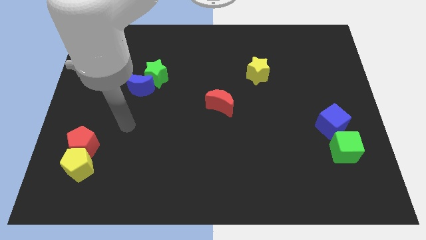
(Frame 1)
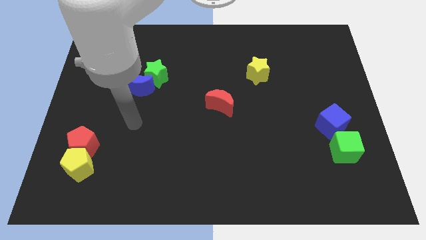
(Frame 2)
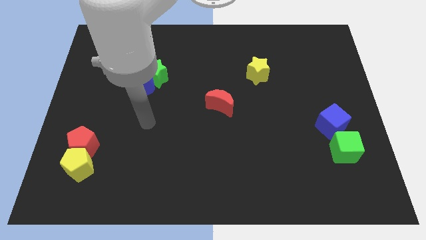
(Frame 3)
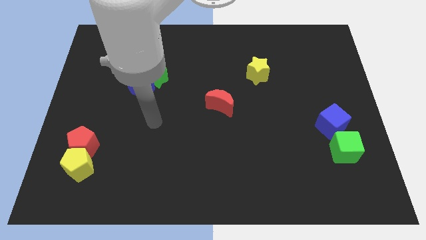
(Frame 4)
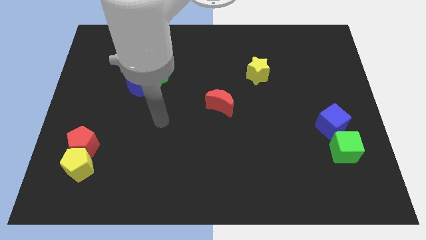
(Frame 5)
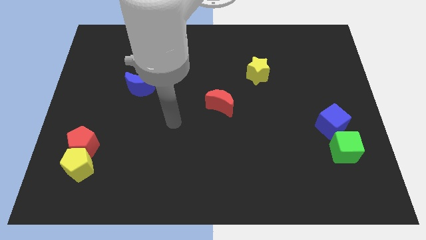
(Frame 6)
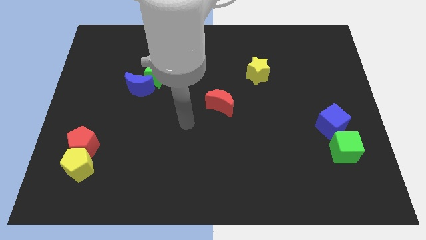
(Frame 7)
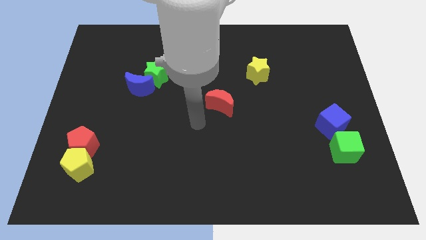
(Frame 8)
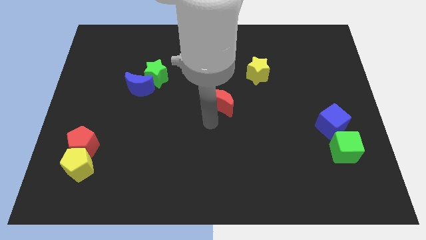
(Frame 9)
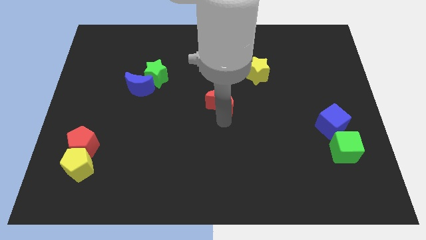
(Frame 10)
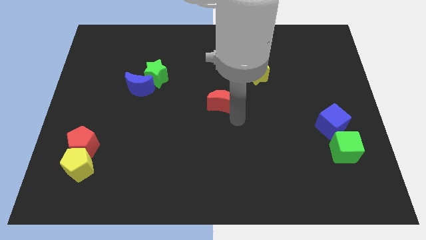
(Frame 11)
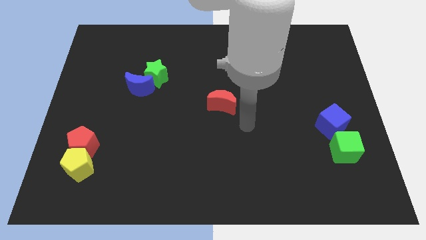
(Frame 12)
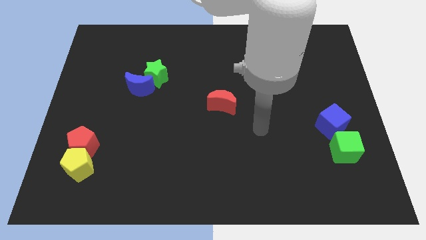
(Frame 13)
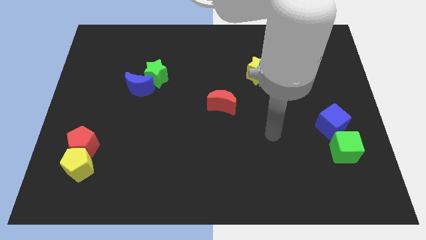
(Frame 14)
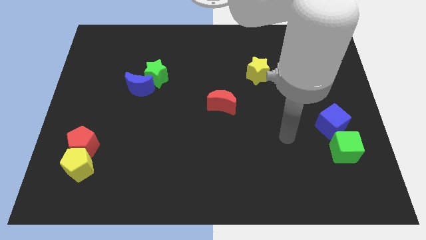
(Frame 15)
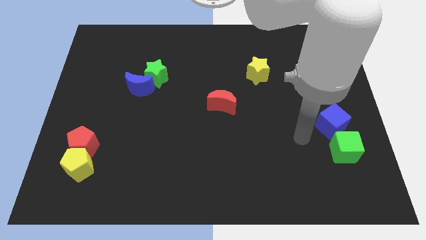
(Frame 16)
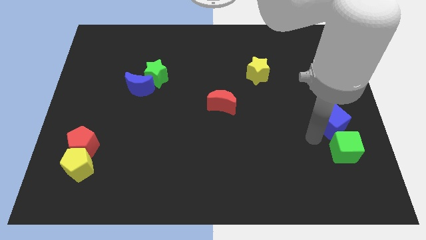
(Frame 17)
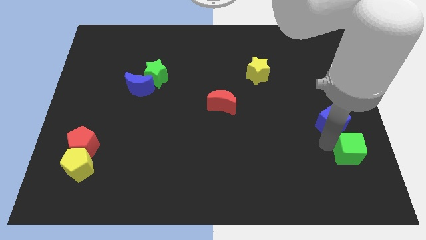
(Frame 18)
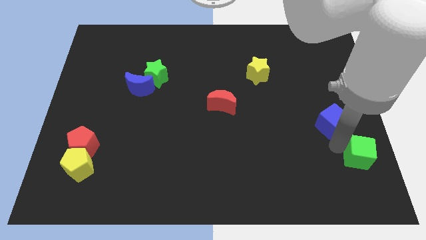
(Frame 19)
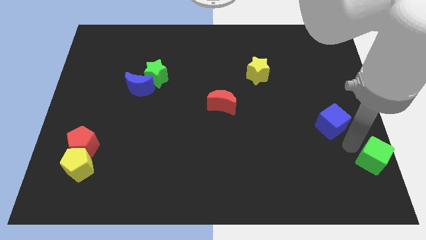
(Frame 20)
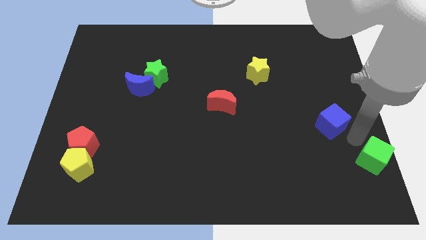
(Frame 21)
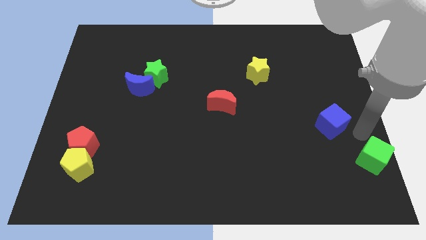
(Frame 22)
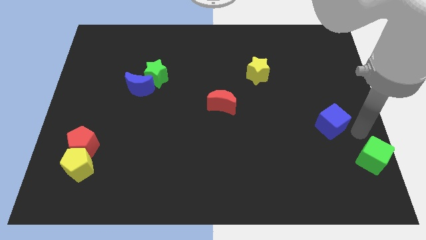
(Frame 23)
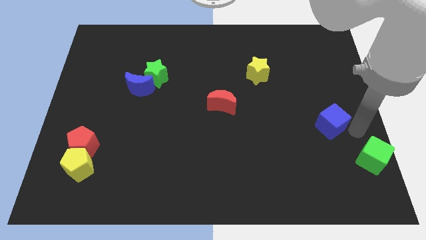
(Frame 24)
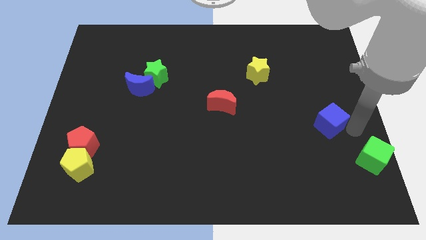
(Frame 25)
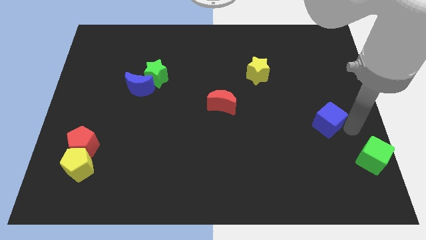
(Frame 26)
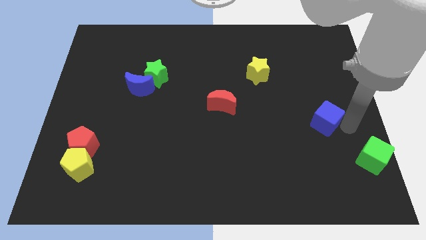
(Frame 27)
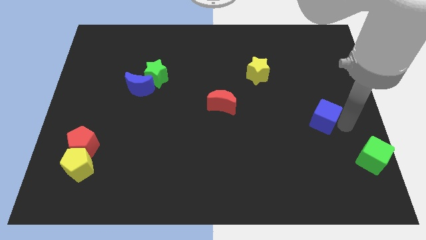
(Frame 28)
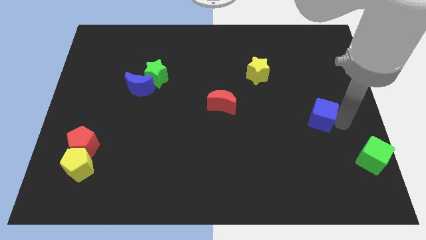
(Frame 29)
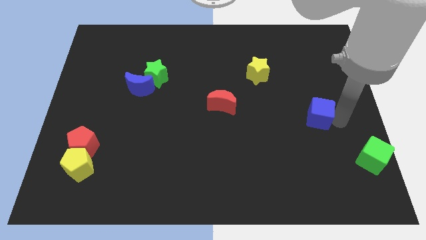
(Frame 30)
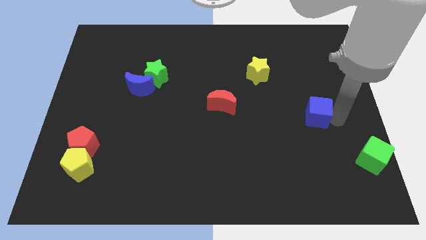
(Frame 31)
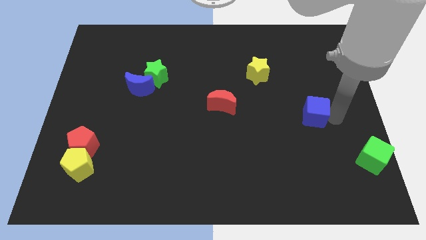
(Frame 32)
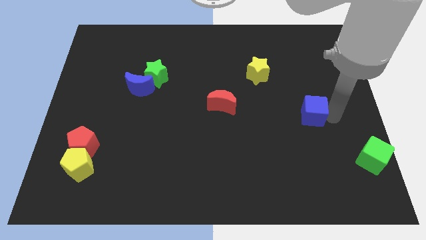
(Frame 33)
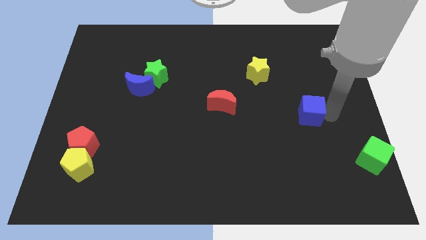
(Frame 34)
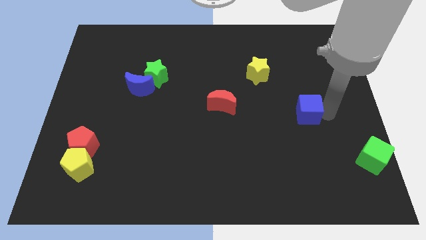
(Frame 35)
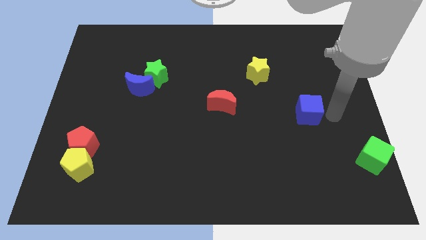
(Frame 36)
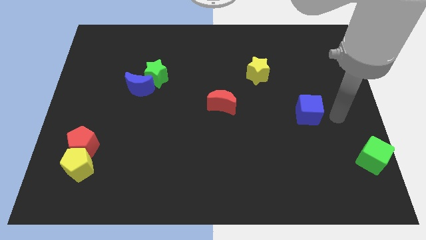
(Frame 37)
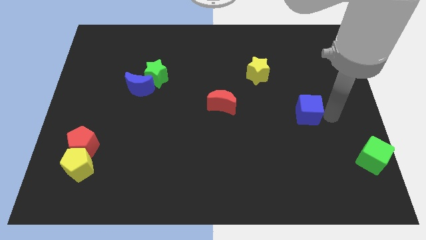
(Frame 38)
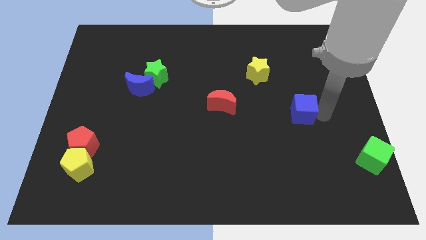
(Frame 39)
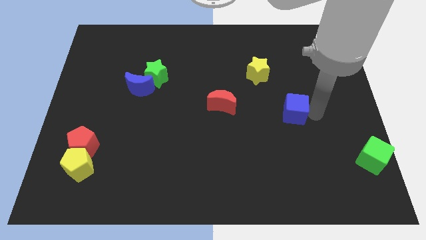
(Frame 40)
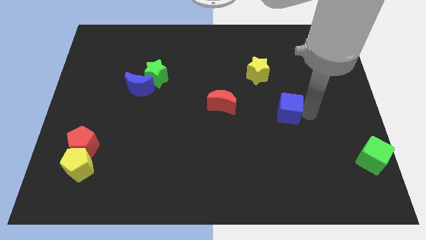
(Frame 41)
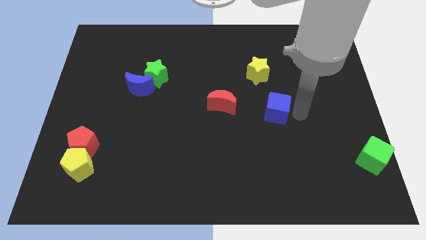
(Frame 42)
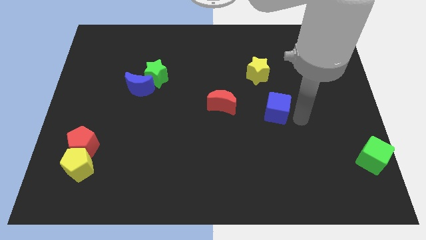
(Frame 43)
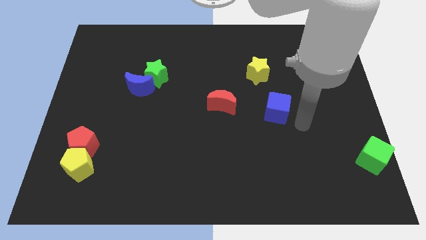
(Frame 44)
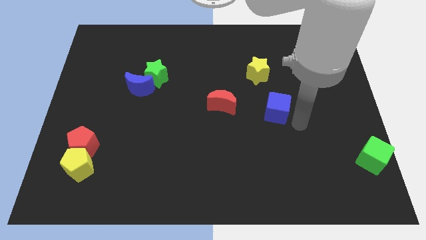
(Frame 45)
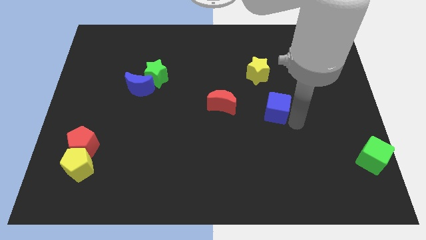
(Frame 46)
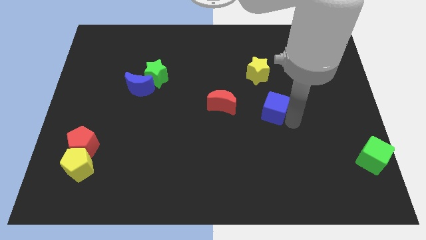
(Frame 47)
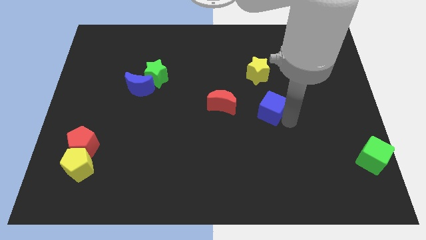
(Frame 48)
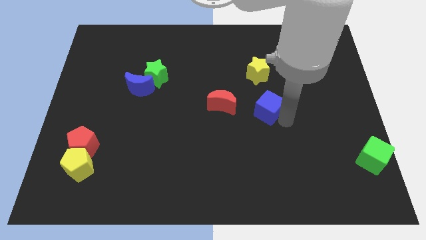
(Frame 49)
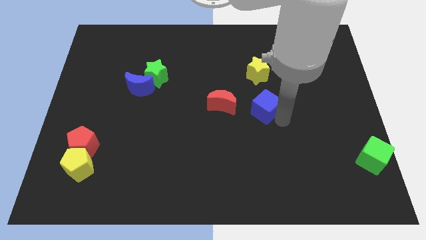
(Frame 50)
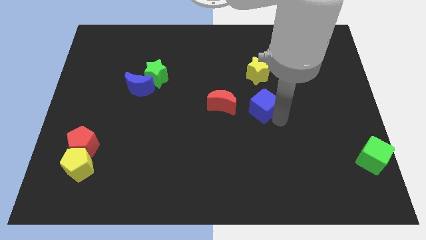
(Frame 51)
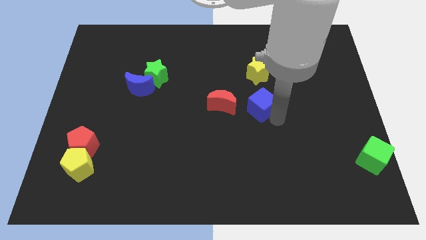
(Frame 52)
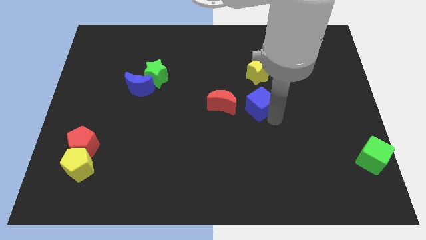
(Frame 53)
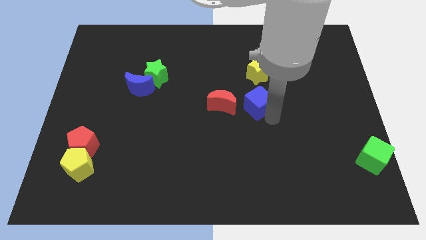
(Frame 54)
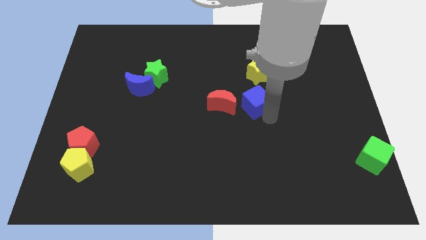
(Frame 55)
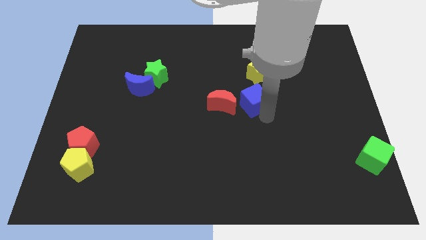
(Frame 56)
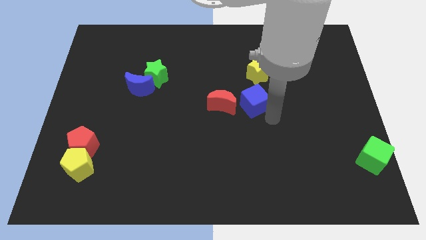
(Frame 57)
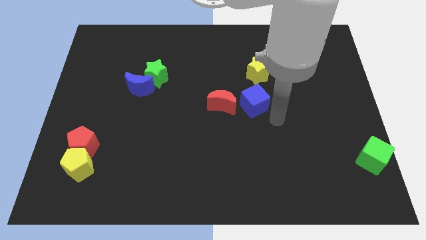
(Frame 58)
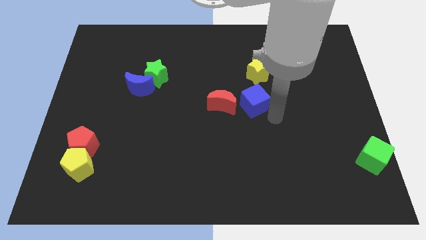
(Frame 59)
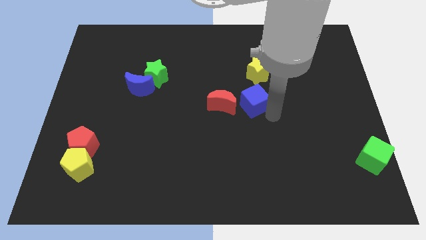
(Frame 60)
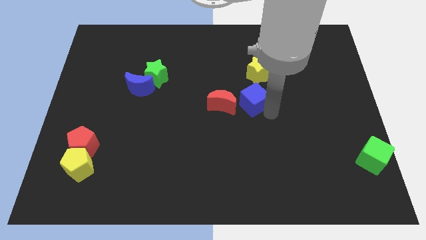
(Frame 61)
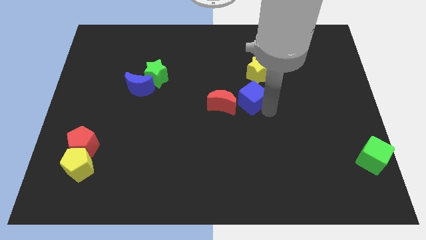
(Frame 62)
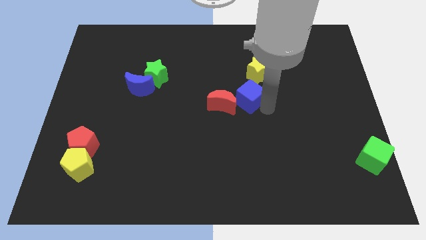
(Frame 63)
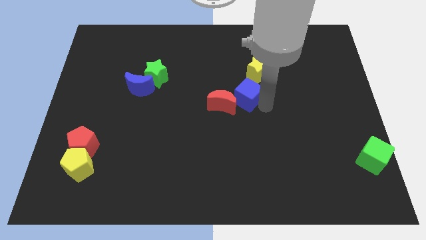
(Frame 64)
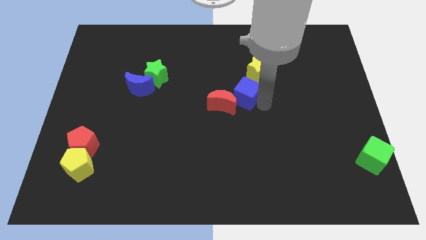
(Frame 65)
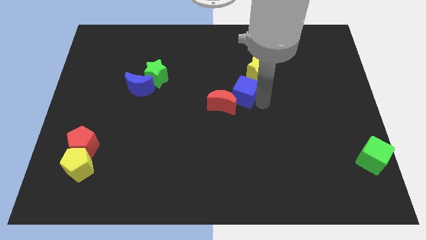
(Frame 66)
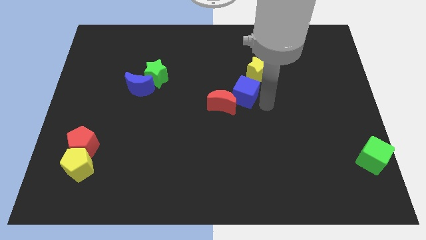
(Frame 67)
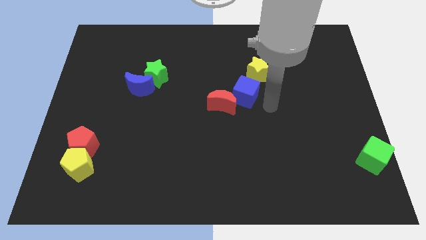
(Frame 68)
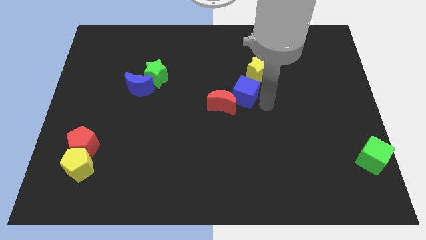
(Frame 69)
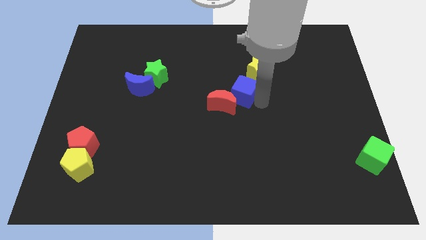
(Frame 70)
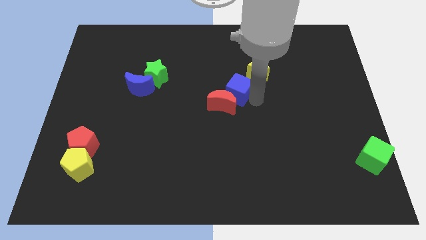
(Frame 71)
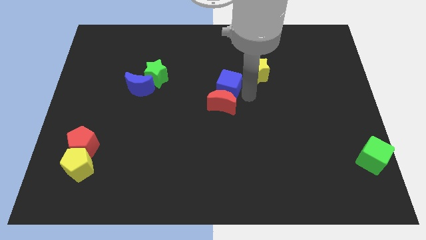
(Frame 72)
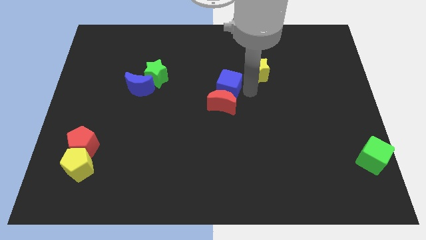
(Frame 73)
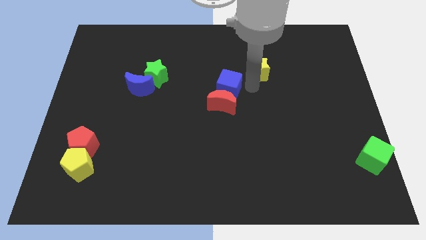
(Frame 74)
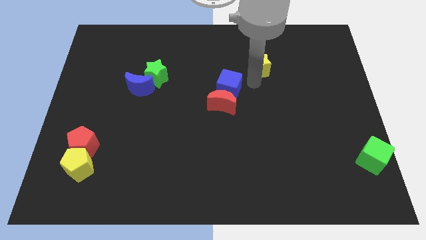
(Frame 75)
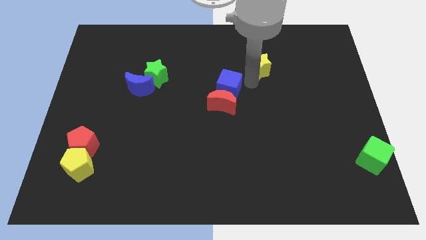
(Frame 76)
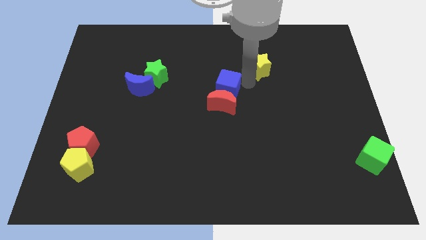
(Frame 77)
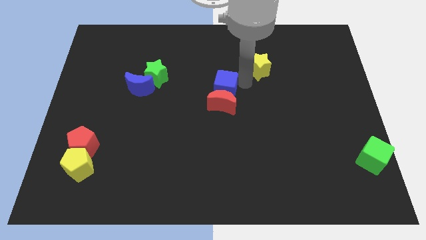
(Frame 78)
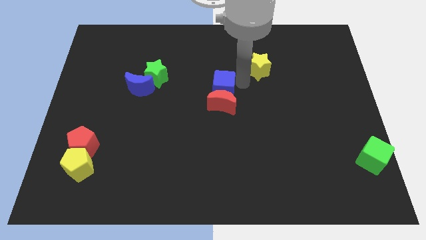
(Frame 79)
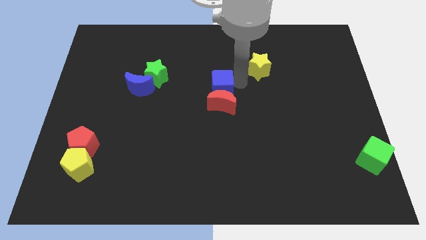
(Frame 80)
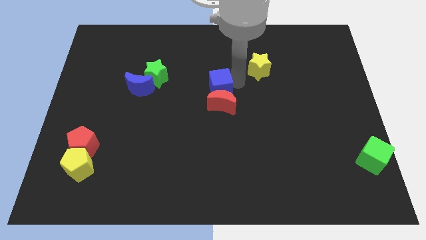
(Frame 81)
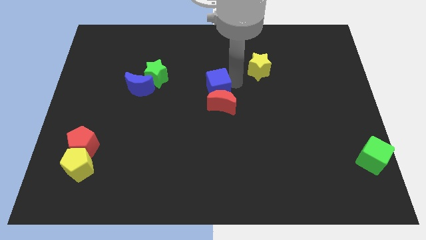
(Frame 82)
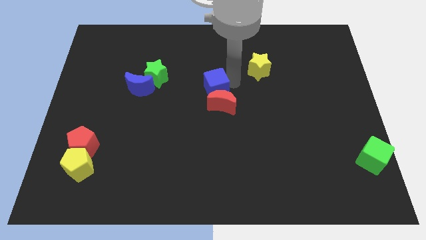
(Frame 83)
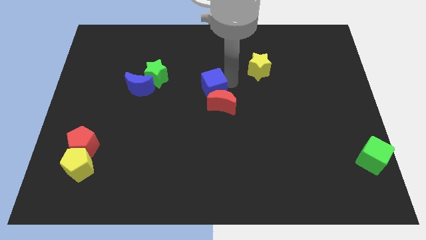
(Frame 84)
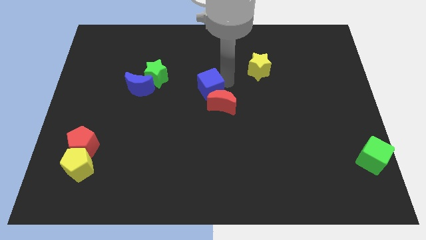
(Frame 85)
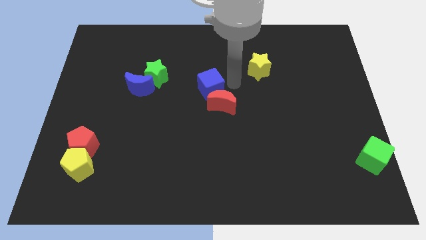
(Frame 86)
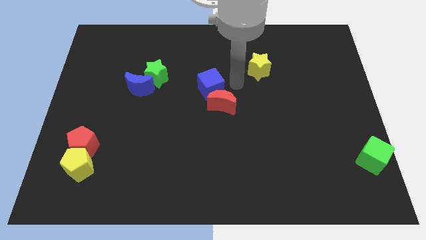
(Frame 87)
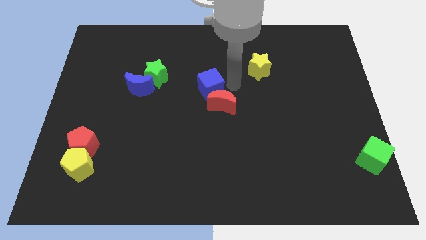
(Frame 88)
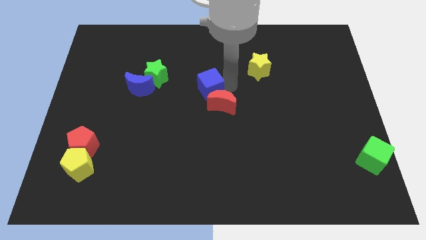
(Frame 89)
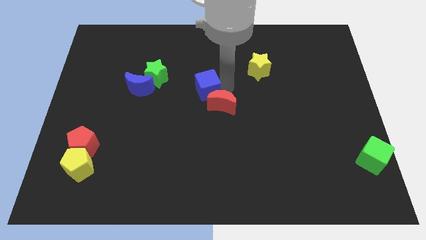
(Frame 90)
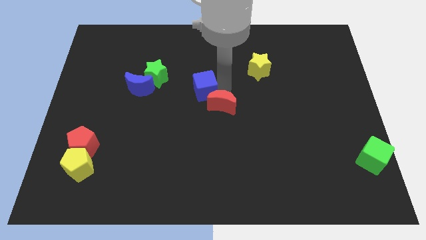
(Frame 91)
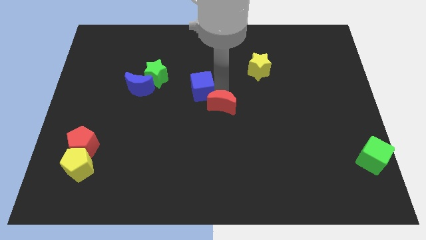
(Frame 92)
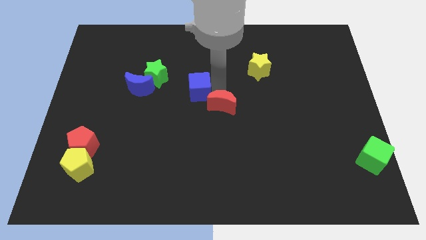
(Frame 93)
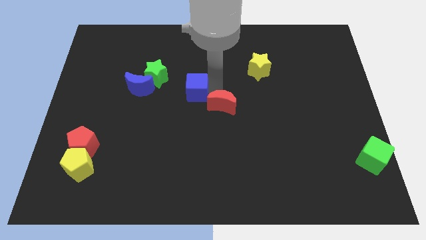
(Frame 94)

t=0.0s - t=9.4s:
push the blue cube to the bottom right side of the green star
